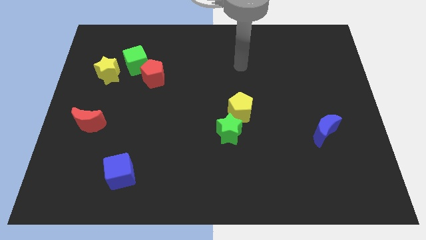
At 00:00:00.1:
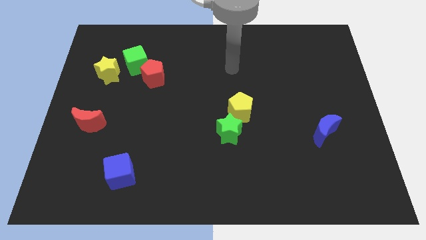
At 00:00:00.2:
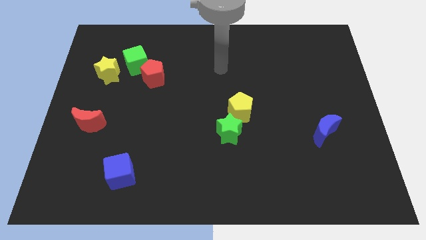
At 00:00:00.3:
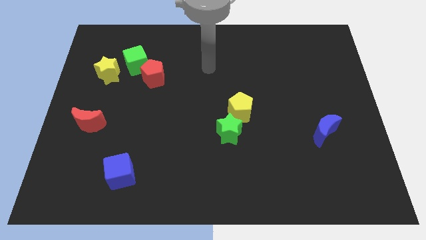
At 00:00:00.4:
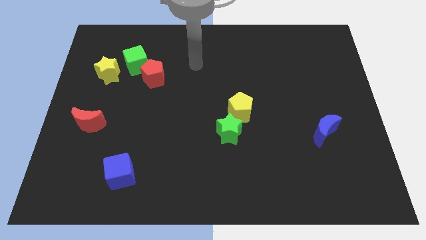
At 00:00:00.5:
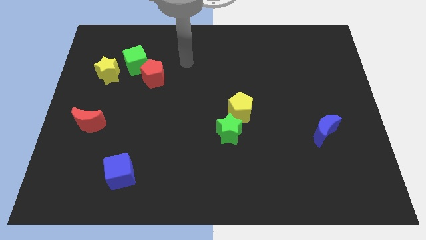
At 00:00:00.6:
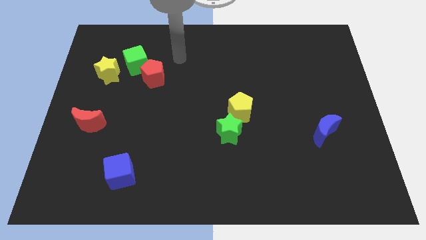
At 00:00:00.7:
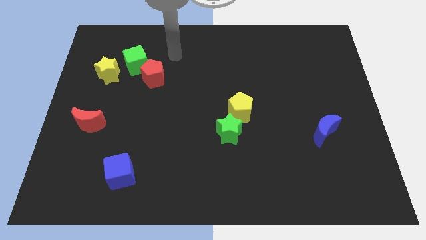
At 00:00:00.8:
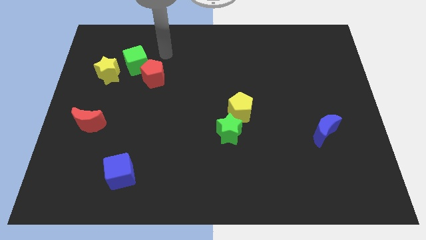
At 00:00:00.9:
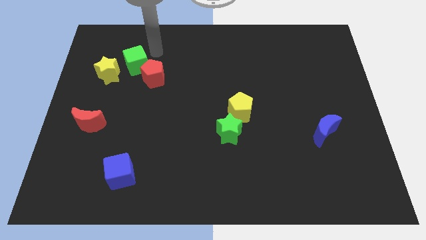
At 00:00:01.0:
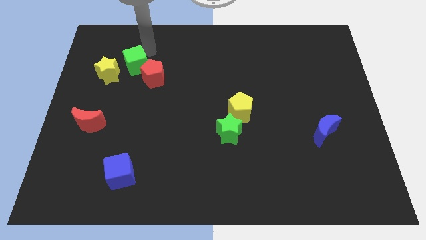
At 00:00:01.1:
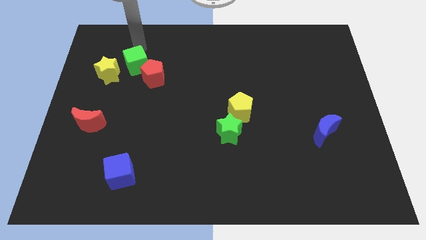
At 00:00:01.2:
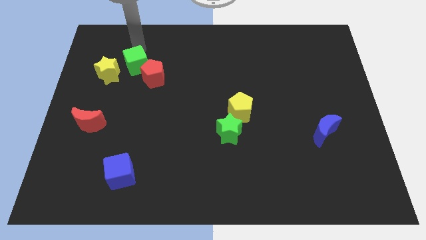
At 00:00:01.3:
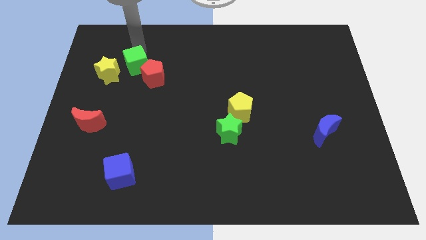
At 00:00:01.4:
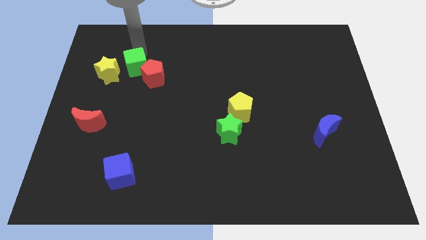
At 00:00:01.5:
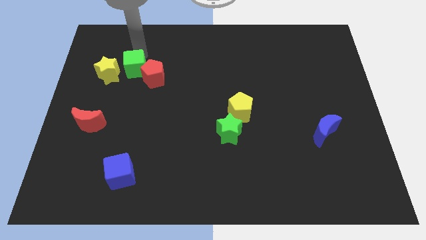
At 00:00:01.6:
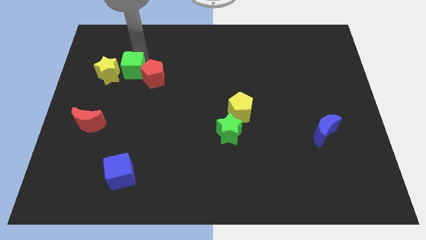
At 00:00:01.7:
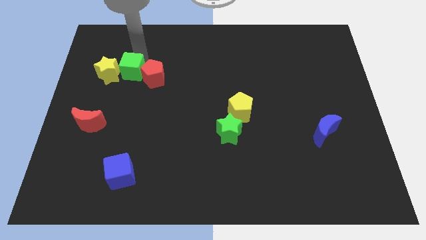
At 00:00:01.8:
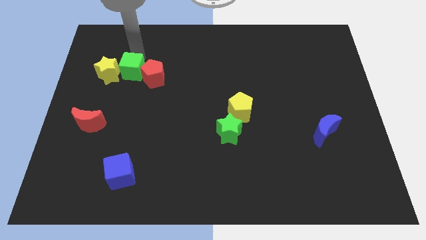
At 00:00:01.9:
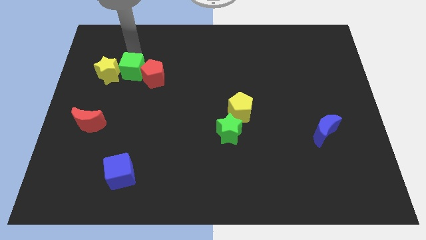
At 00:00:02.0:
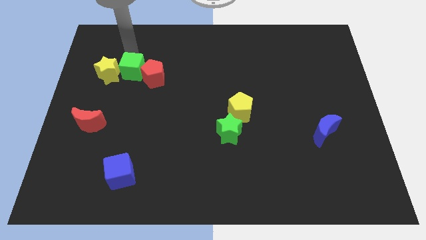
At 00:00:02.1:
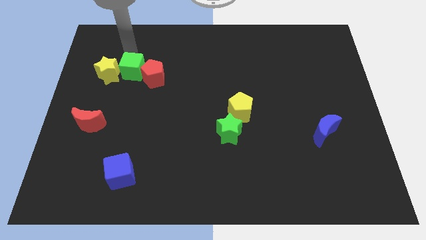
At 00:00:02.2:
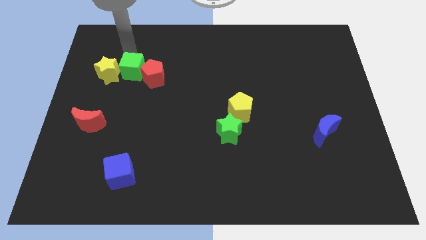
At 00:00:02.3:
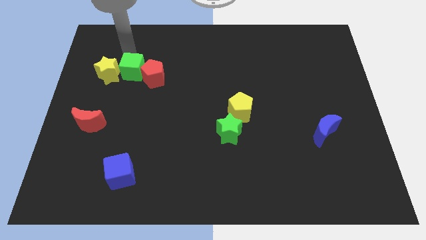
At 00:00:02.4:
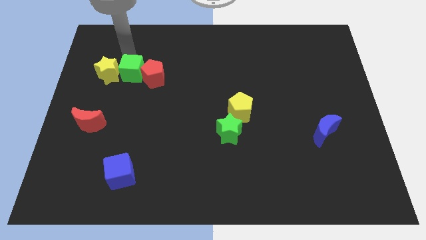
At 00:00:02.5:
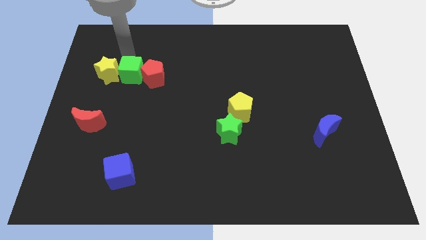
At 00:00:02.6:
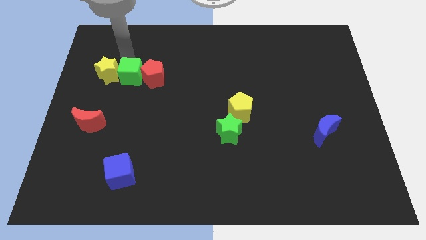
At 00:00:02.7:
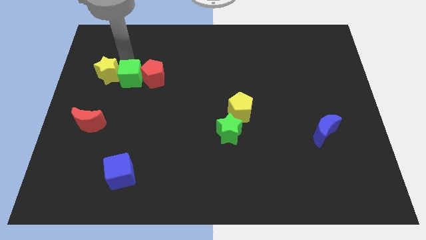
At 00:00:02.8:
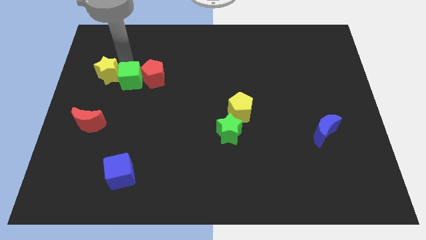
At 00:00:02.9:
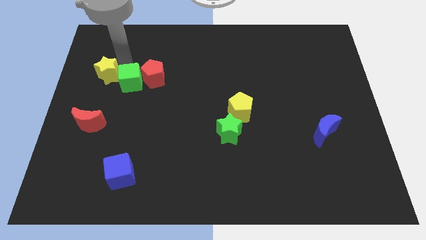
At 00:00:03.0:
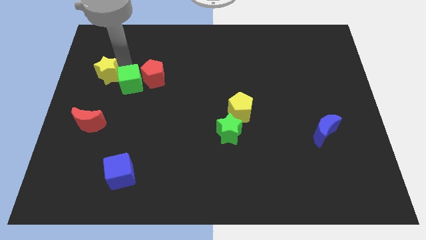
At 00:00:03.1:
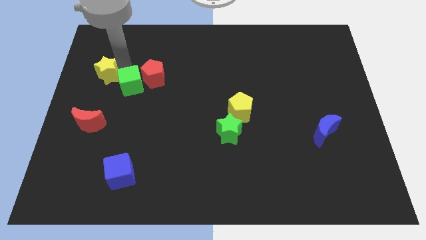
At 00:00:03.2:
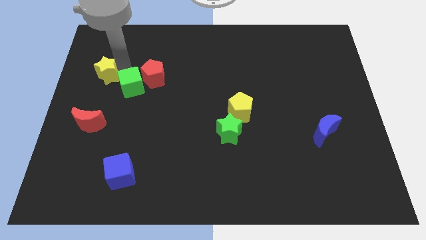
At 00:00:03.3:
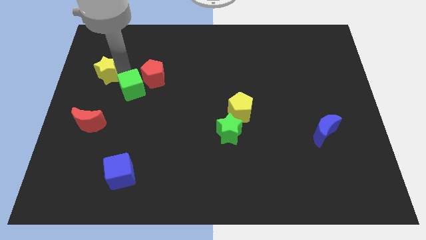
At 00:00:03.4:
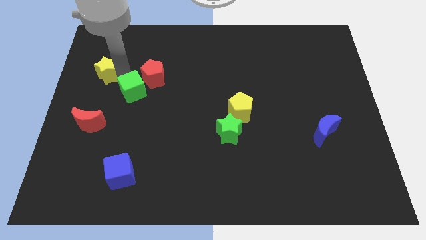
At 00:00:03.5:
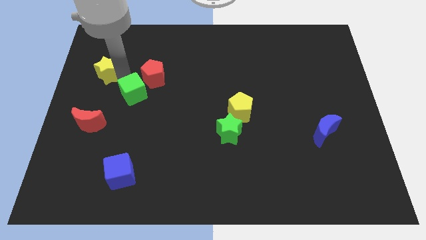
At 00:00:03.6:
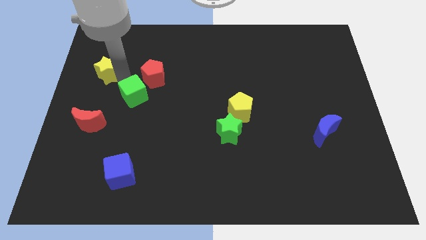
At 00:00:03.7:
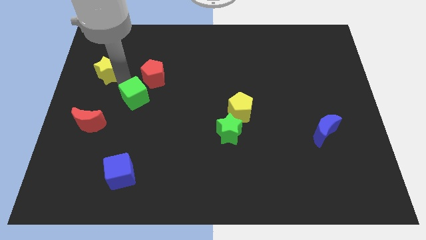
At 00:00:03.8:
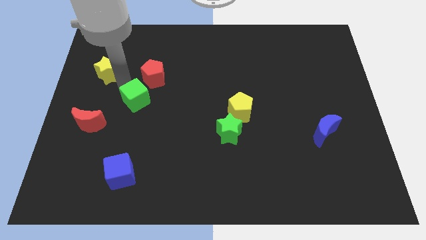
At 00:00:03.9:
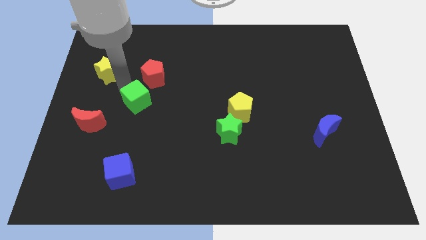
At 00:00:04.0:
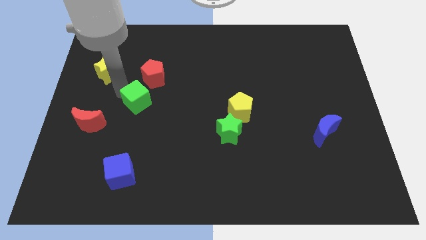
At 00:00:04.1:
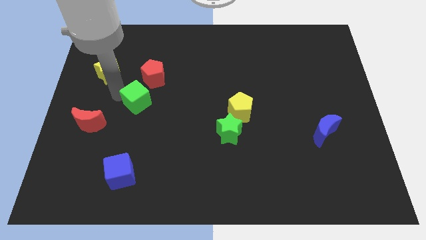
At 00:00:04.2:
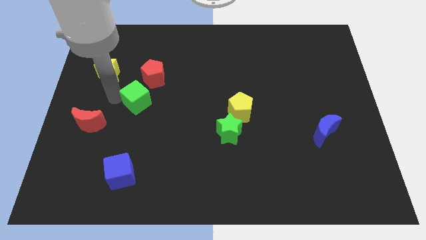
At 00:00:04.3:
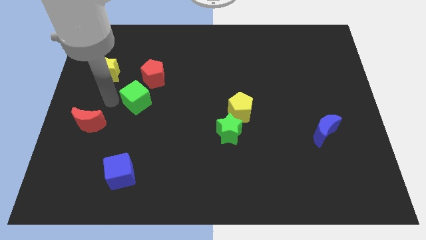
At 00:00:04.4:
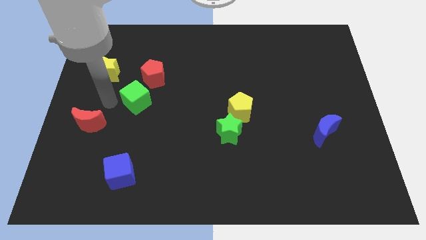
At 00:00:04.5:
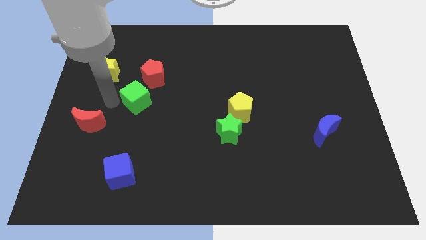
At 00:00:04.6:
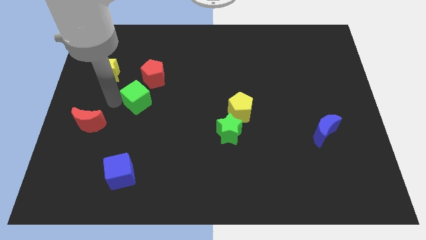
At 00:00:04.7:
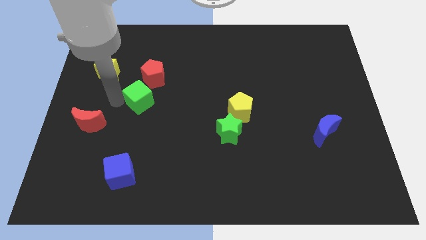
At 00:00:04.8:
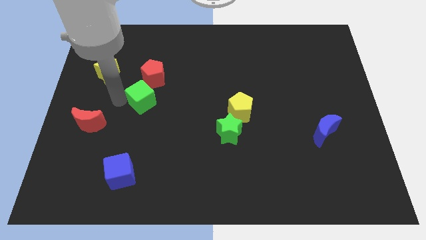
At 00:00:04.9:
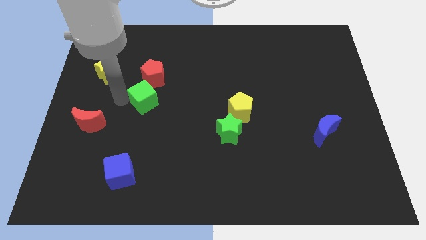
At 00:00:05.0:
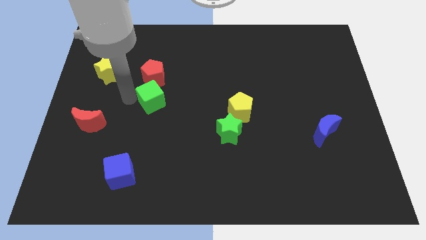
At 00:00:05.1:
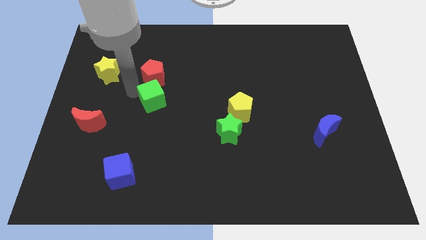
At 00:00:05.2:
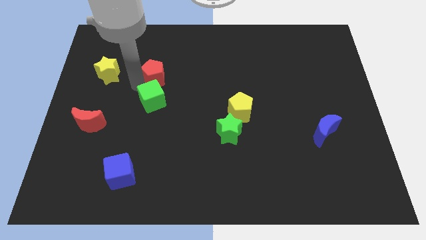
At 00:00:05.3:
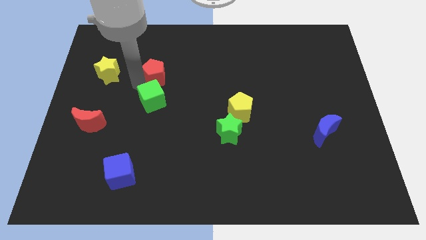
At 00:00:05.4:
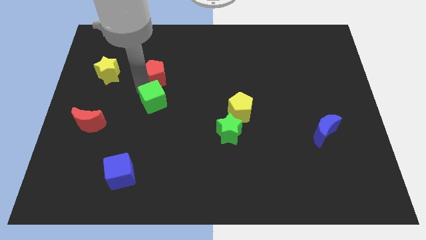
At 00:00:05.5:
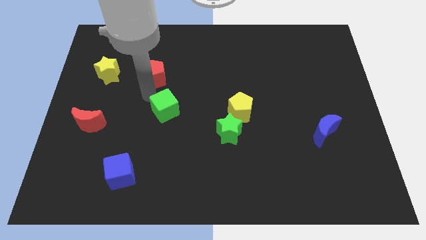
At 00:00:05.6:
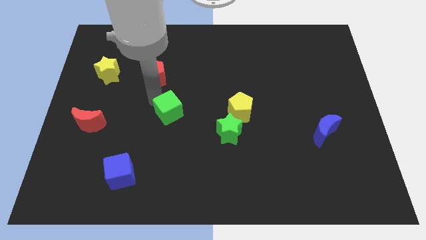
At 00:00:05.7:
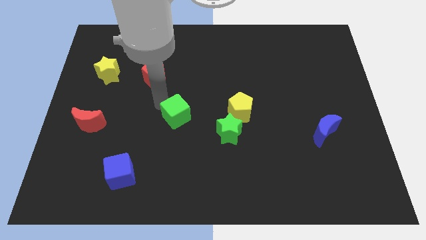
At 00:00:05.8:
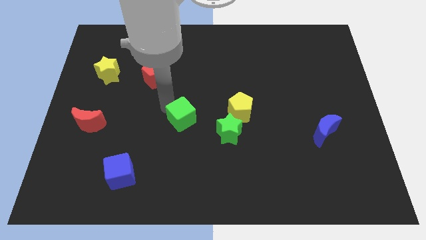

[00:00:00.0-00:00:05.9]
push the green cube to the left of the green star

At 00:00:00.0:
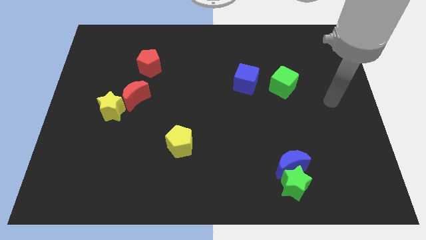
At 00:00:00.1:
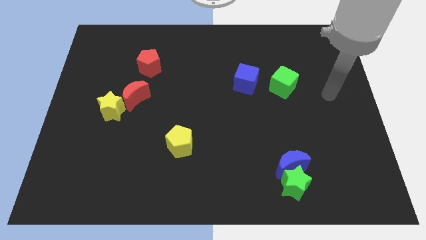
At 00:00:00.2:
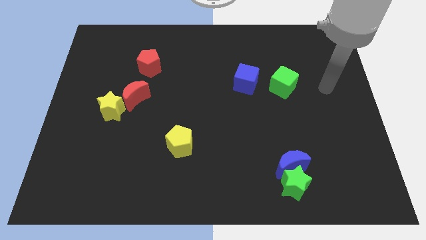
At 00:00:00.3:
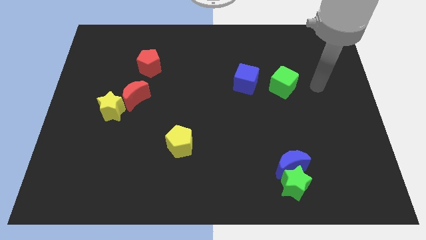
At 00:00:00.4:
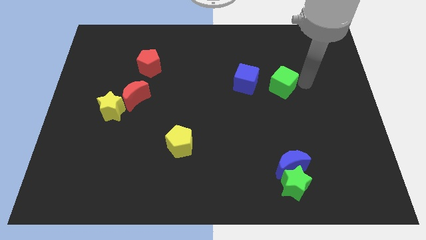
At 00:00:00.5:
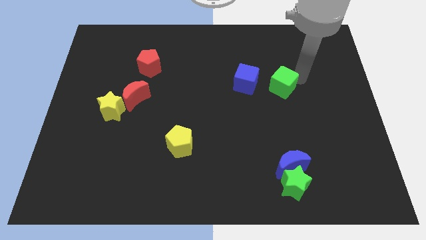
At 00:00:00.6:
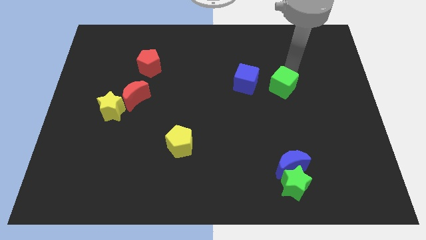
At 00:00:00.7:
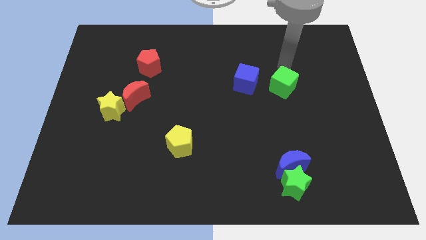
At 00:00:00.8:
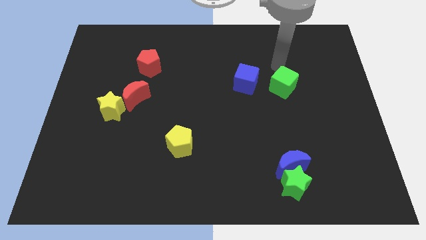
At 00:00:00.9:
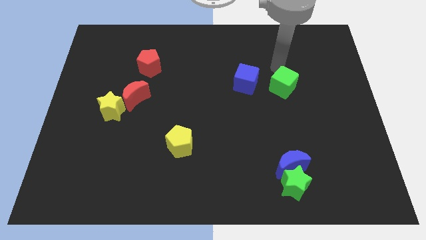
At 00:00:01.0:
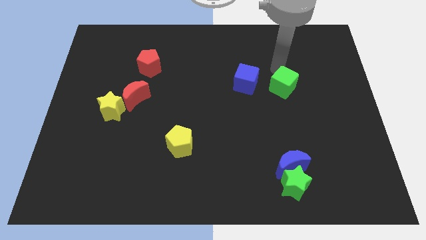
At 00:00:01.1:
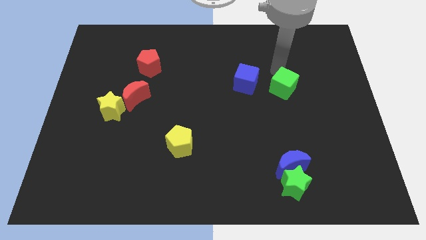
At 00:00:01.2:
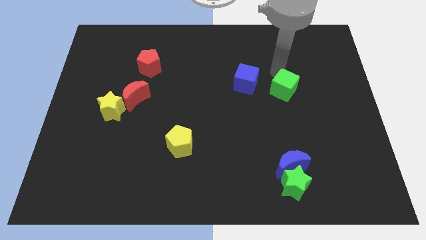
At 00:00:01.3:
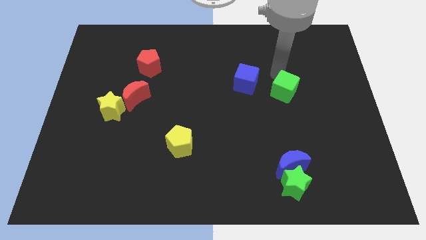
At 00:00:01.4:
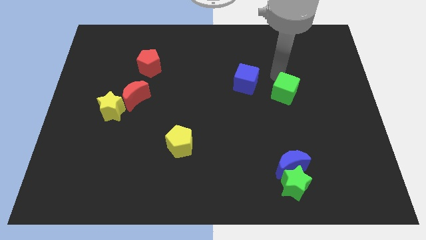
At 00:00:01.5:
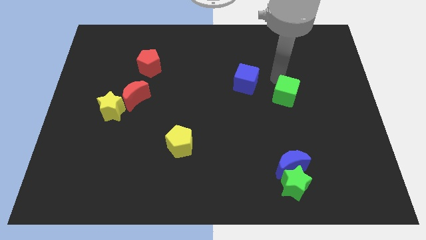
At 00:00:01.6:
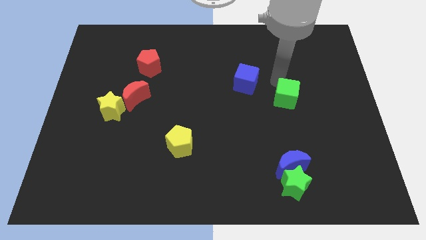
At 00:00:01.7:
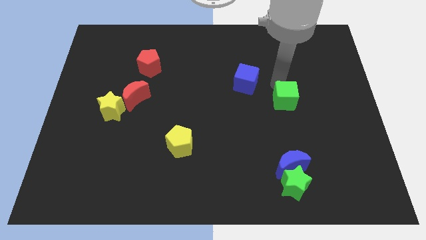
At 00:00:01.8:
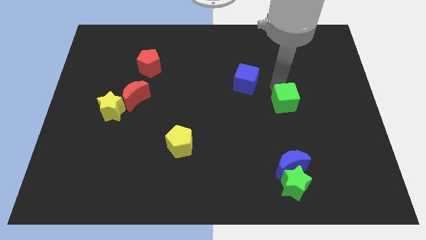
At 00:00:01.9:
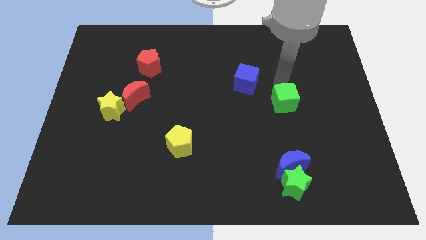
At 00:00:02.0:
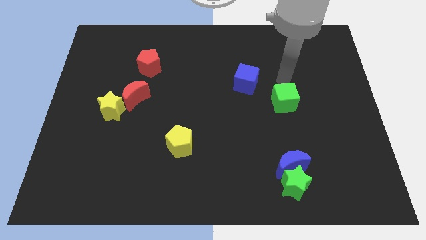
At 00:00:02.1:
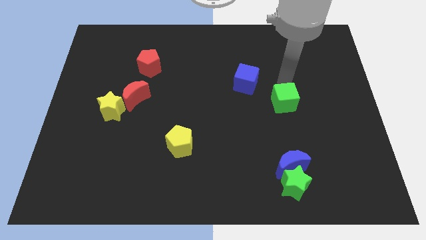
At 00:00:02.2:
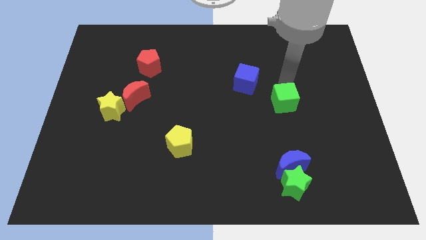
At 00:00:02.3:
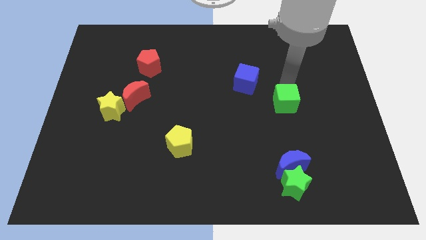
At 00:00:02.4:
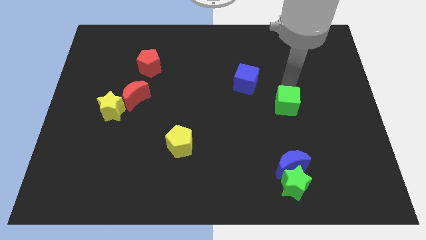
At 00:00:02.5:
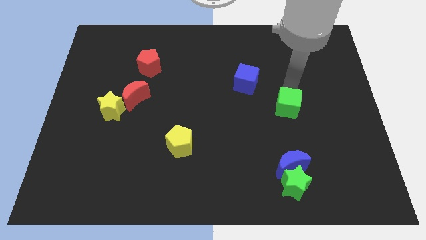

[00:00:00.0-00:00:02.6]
put the green cube to the top of the blue moon
